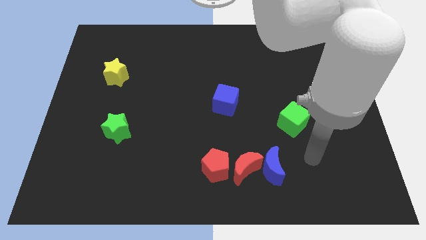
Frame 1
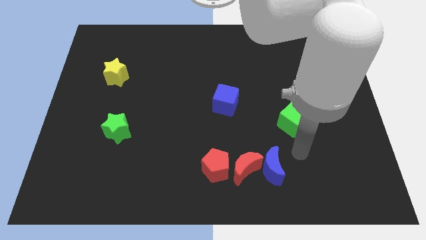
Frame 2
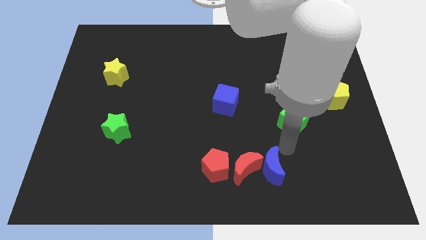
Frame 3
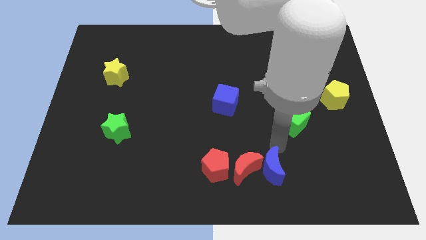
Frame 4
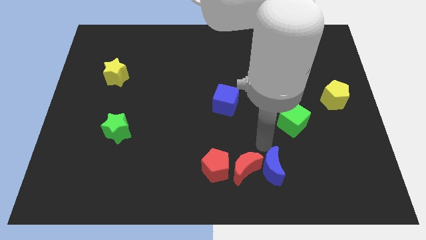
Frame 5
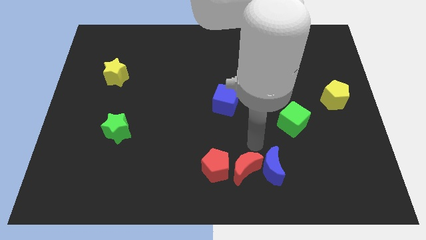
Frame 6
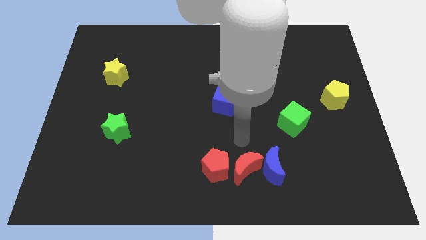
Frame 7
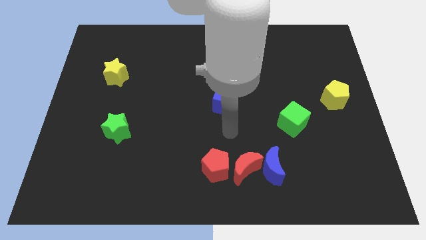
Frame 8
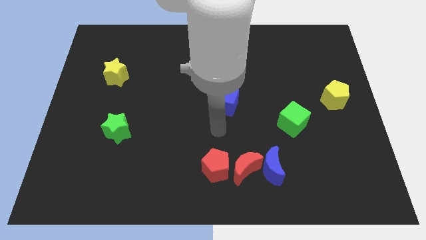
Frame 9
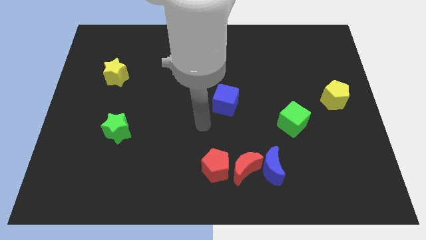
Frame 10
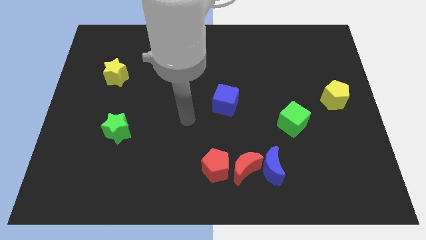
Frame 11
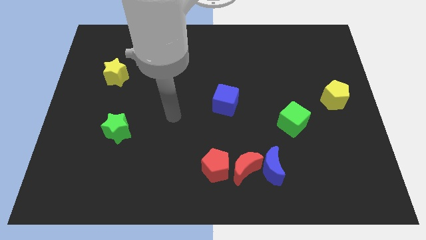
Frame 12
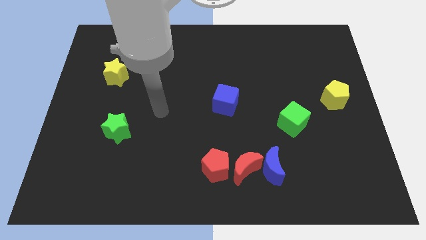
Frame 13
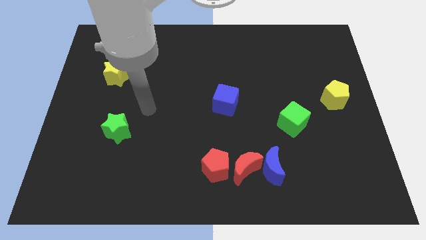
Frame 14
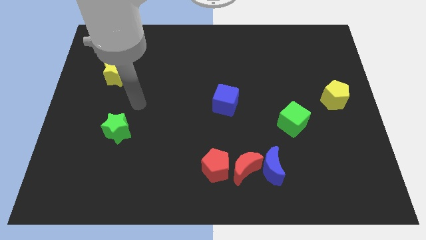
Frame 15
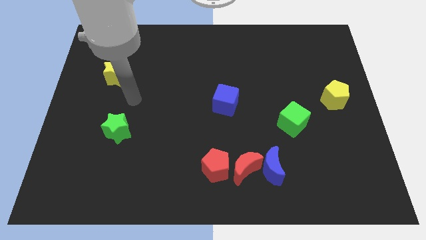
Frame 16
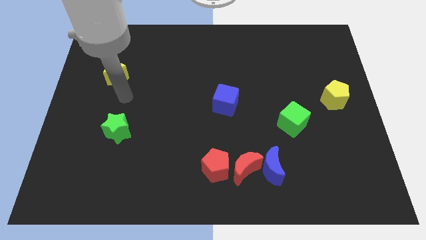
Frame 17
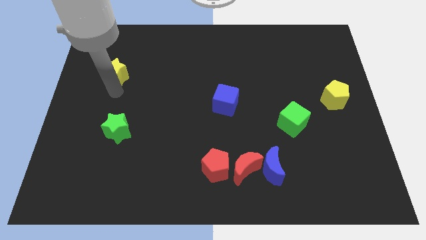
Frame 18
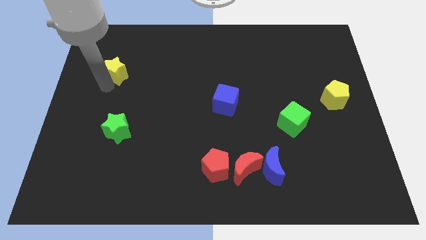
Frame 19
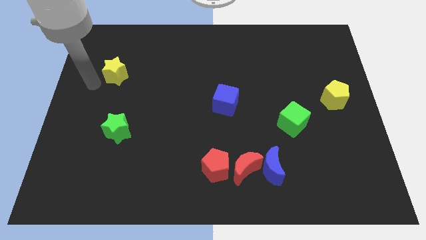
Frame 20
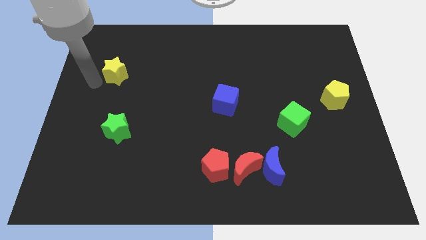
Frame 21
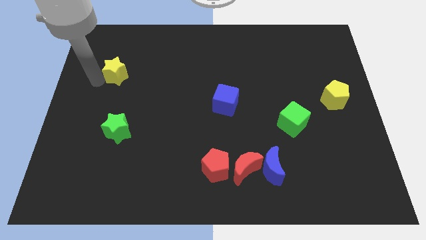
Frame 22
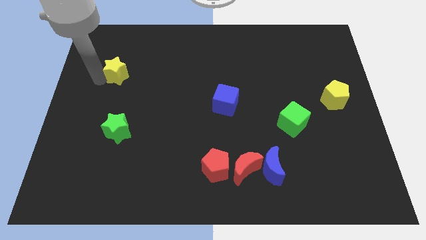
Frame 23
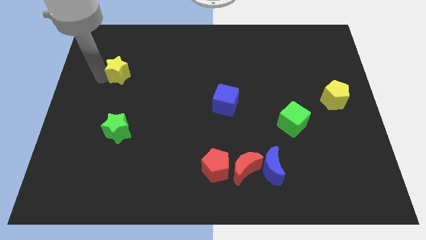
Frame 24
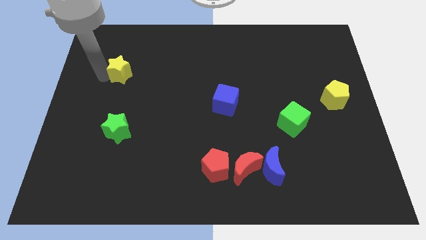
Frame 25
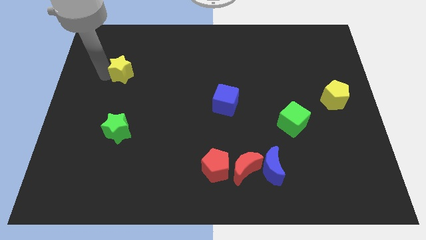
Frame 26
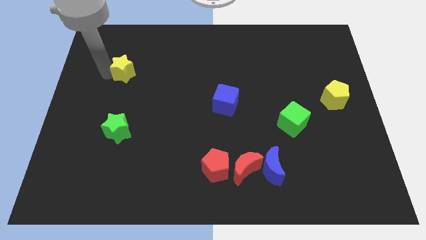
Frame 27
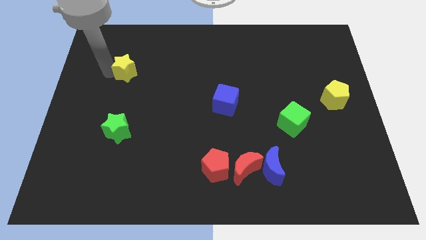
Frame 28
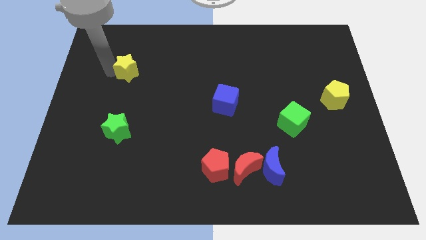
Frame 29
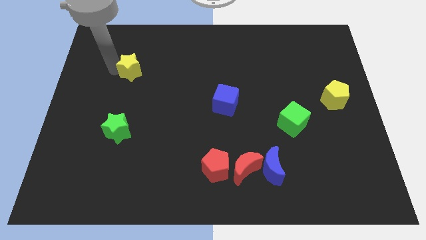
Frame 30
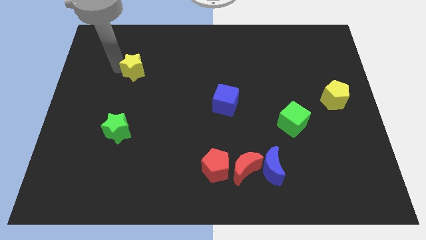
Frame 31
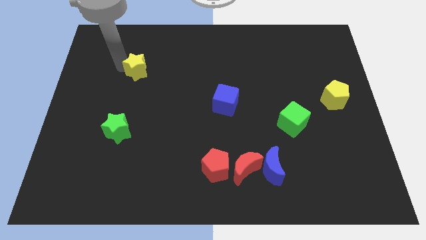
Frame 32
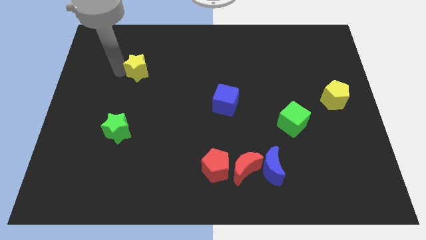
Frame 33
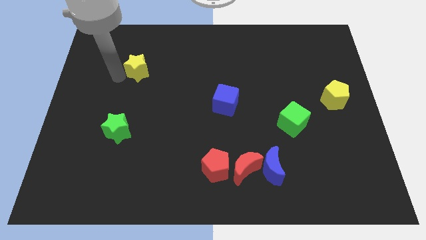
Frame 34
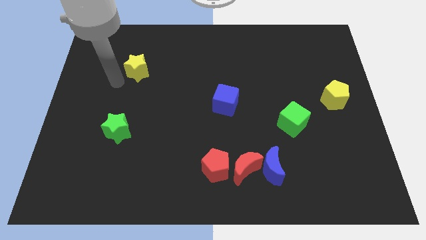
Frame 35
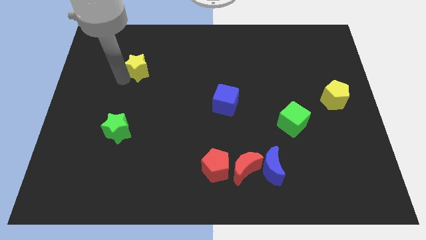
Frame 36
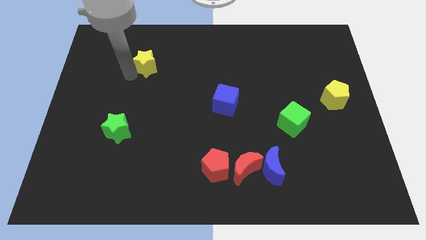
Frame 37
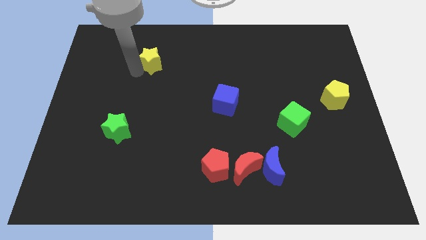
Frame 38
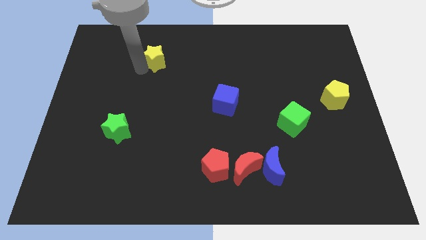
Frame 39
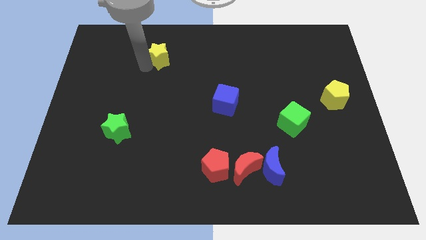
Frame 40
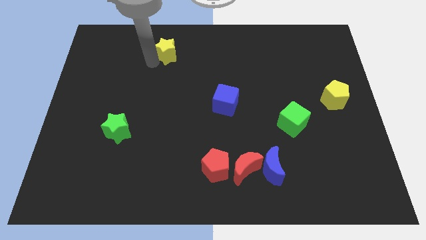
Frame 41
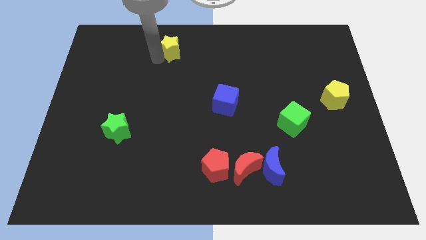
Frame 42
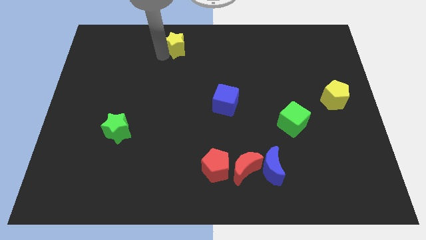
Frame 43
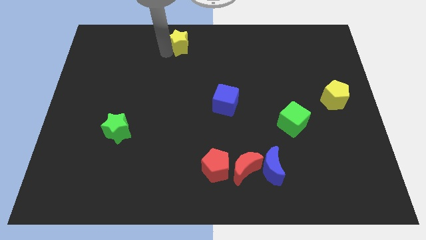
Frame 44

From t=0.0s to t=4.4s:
move the yellow star to the top side

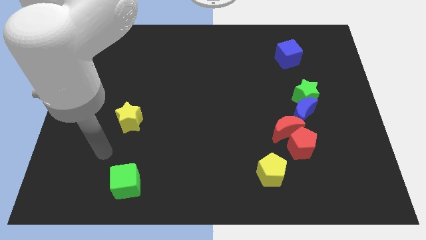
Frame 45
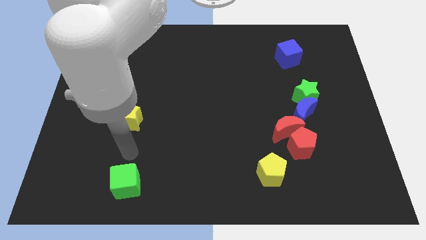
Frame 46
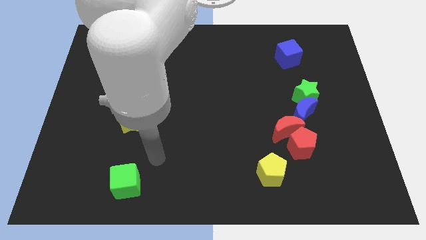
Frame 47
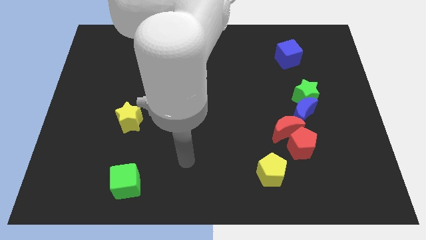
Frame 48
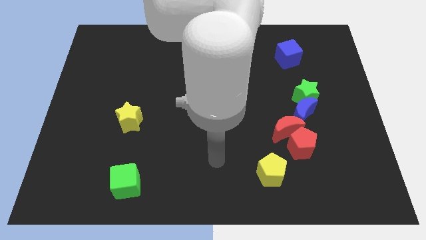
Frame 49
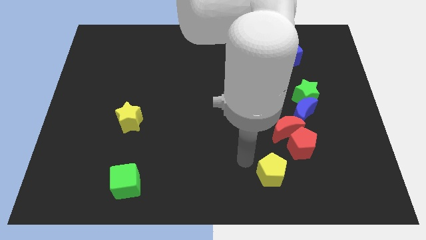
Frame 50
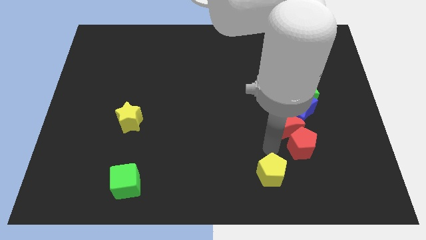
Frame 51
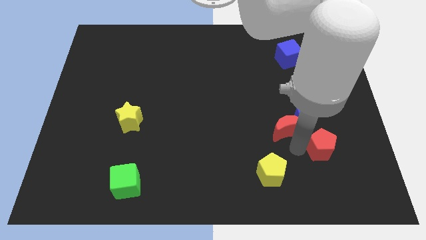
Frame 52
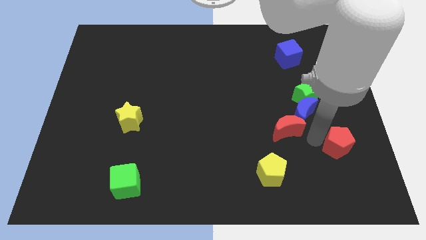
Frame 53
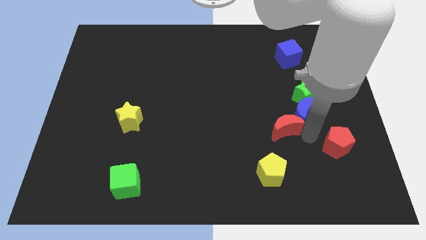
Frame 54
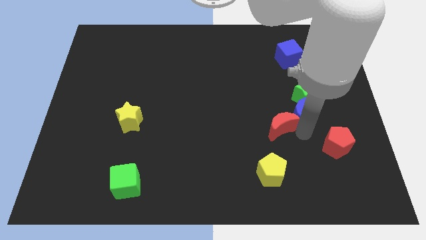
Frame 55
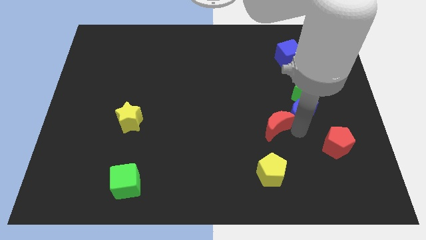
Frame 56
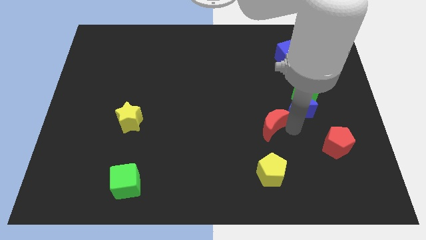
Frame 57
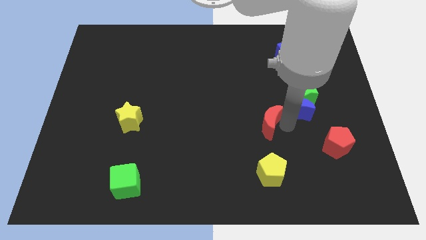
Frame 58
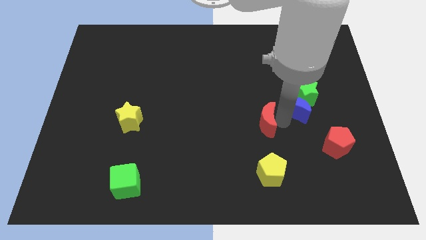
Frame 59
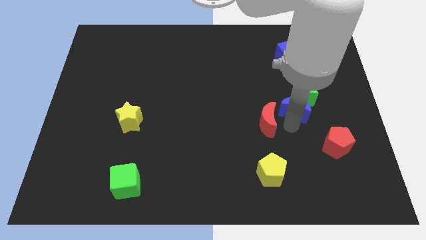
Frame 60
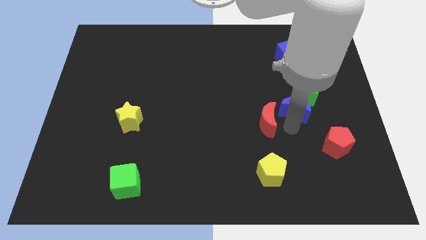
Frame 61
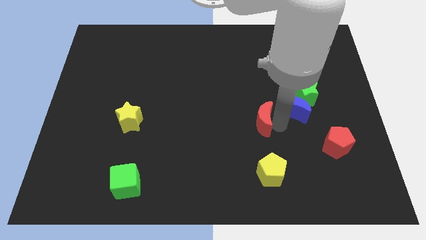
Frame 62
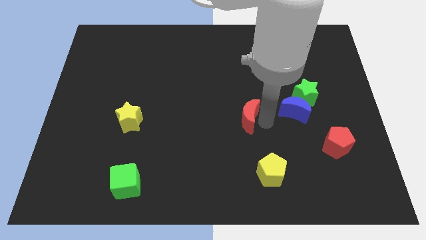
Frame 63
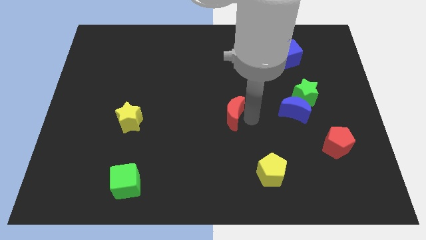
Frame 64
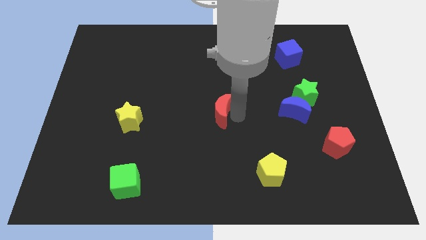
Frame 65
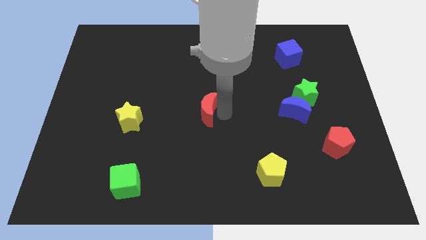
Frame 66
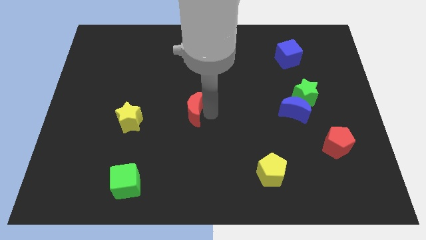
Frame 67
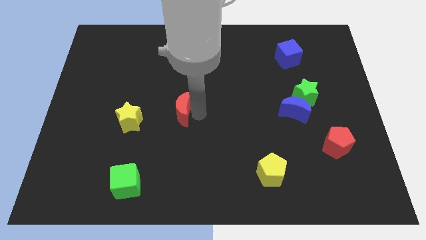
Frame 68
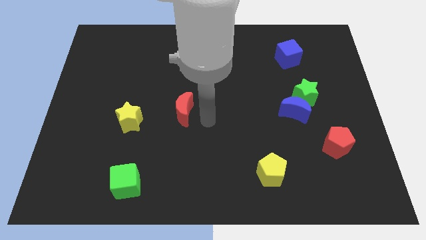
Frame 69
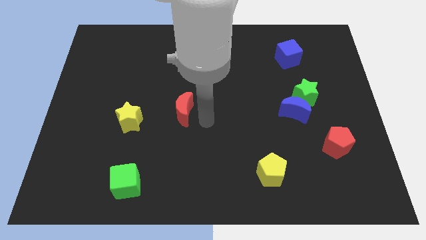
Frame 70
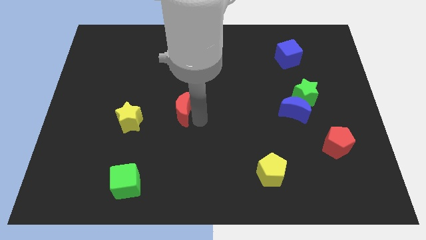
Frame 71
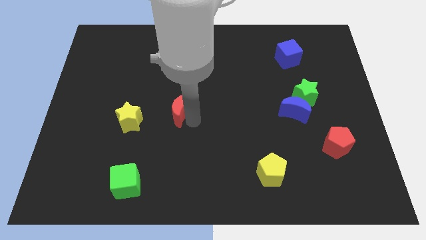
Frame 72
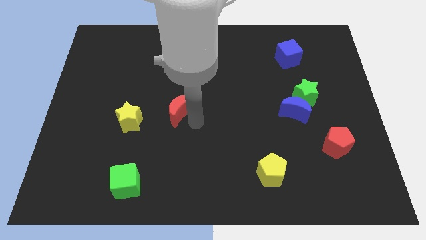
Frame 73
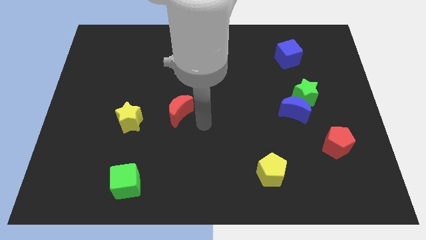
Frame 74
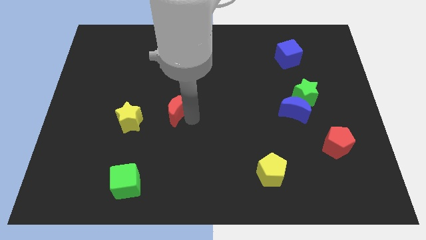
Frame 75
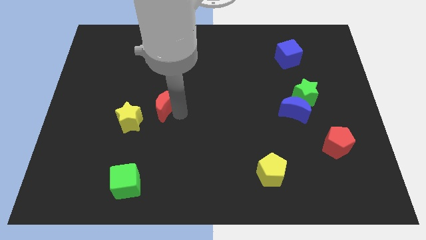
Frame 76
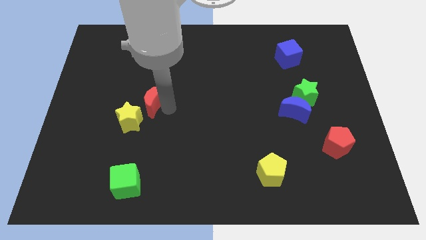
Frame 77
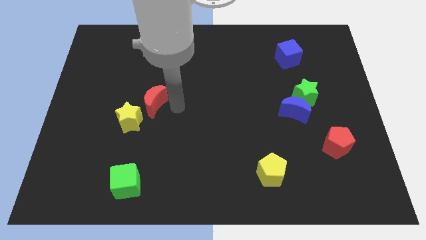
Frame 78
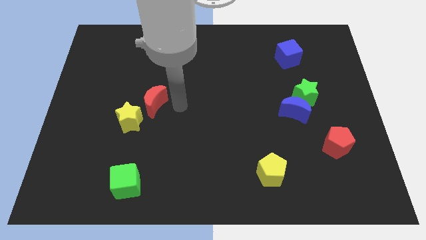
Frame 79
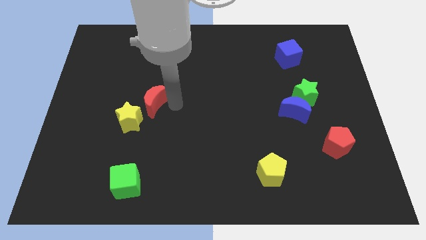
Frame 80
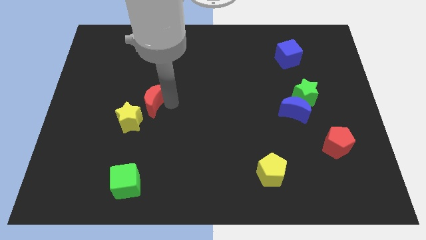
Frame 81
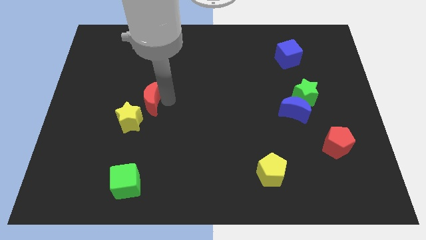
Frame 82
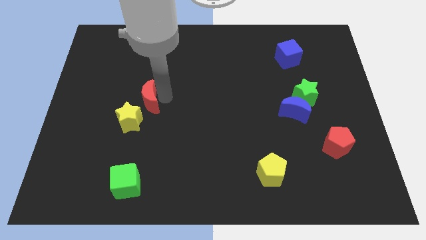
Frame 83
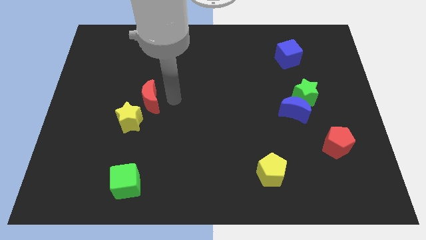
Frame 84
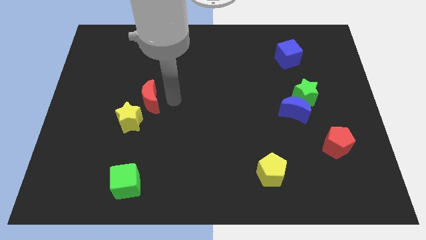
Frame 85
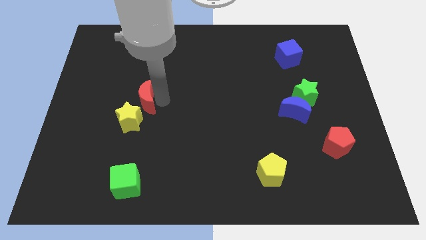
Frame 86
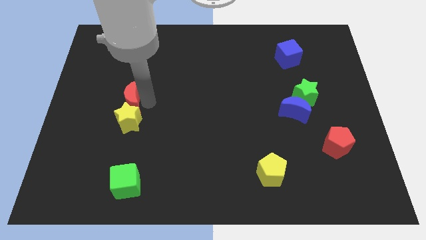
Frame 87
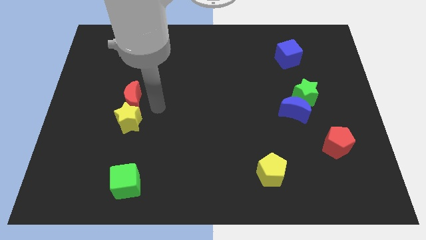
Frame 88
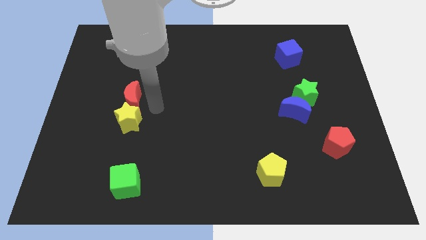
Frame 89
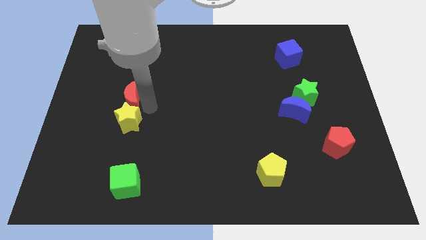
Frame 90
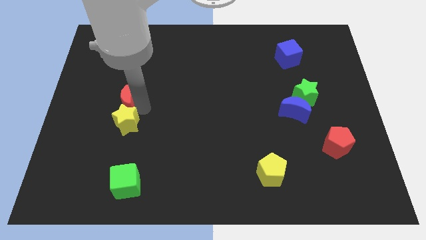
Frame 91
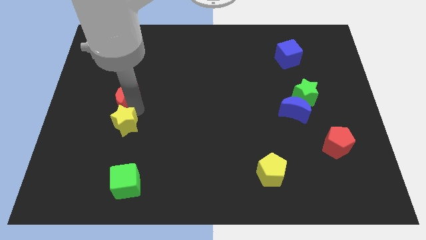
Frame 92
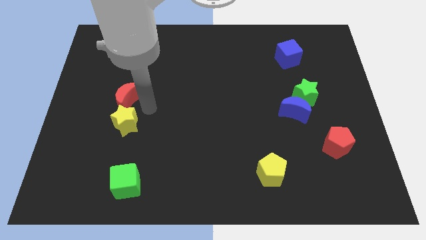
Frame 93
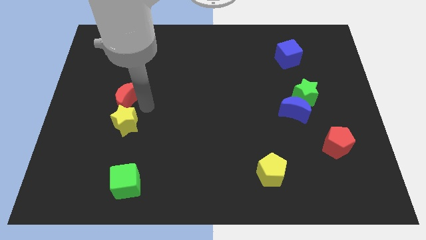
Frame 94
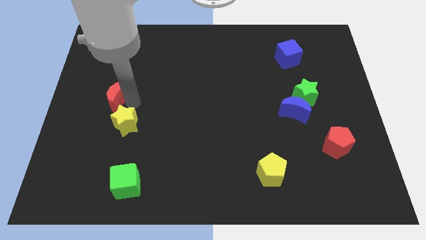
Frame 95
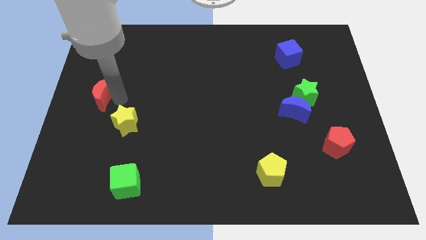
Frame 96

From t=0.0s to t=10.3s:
push the red moon to the left side of the board
